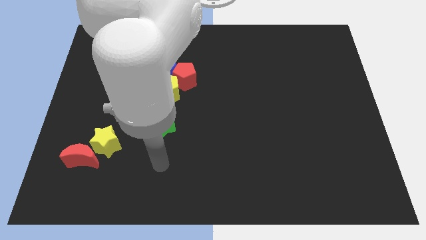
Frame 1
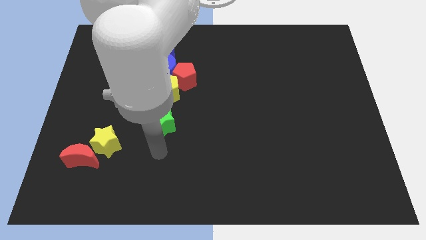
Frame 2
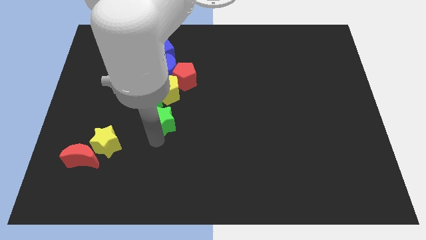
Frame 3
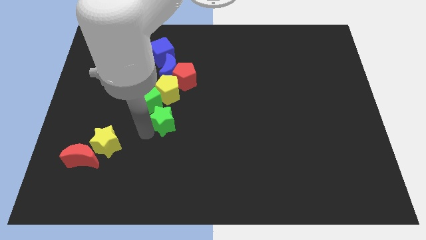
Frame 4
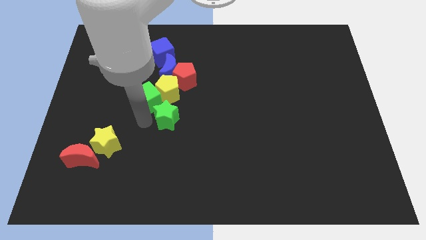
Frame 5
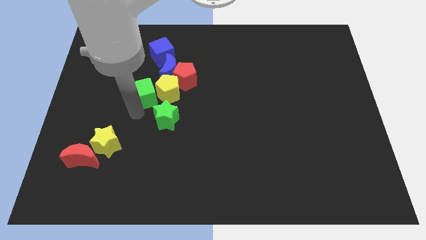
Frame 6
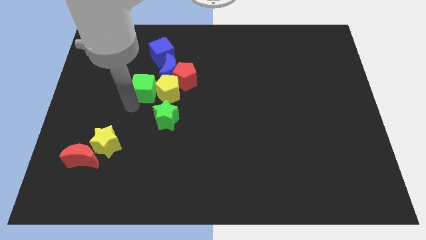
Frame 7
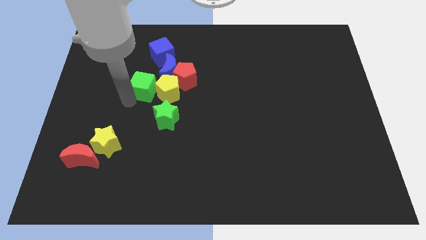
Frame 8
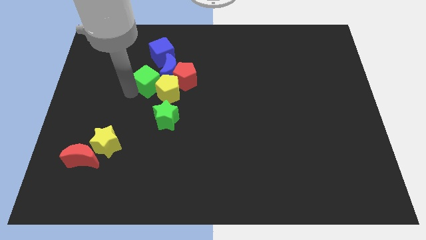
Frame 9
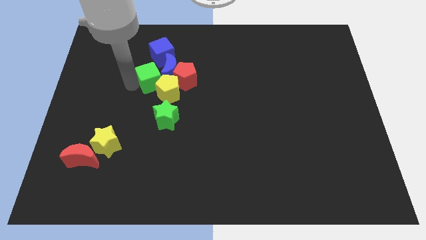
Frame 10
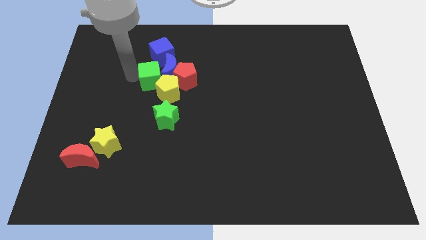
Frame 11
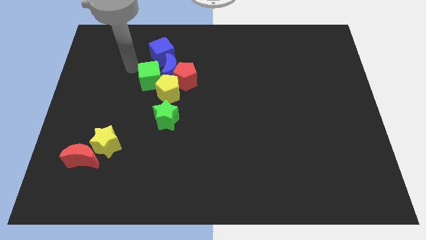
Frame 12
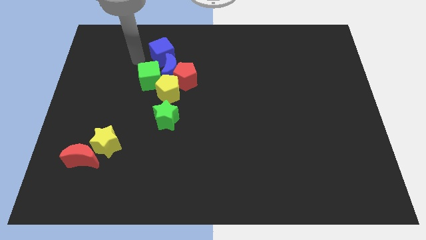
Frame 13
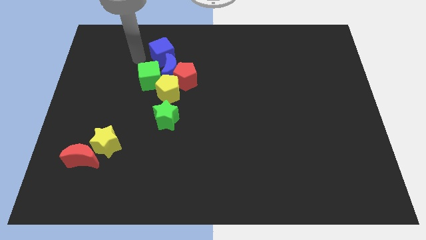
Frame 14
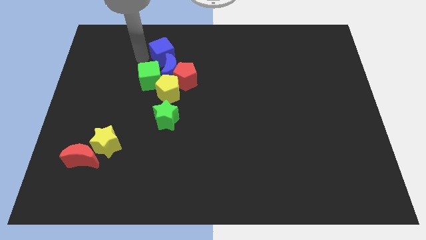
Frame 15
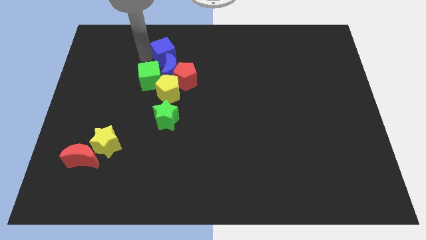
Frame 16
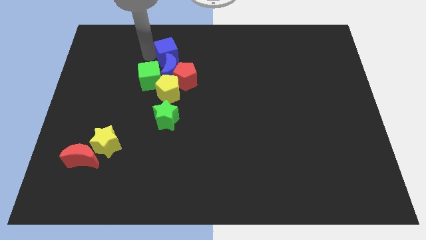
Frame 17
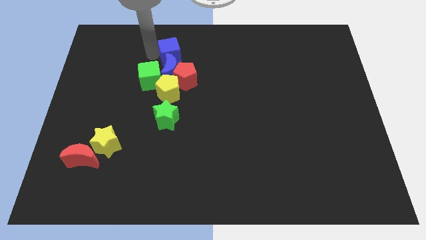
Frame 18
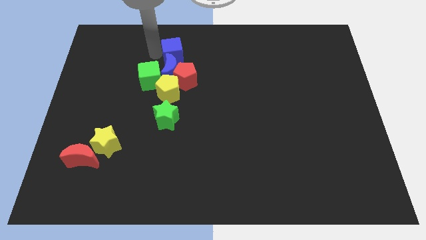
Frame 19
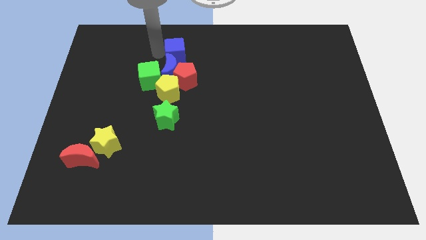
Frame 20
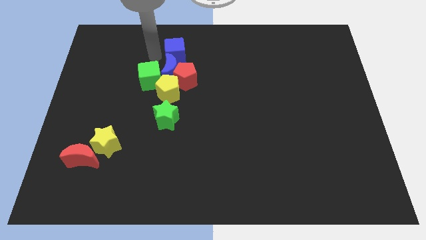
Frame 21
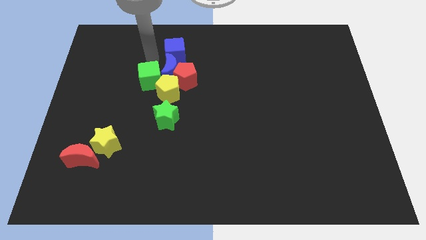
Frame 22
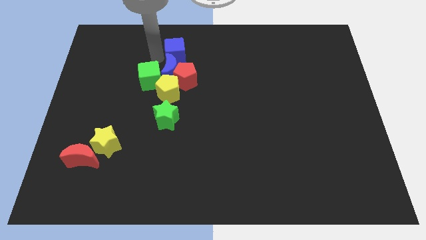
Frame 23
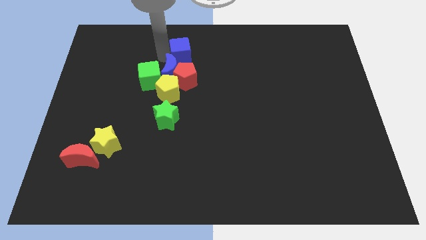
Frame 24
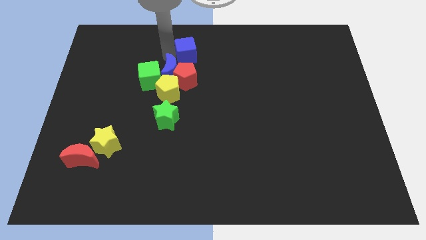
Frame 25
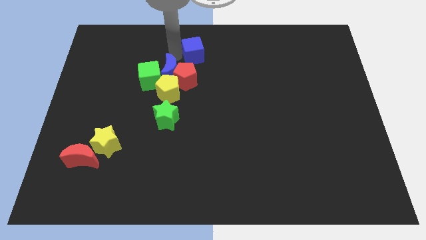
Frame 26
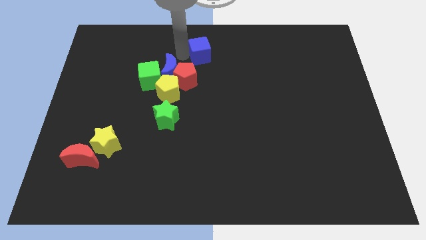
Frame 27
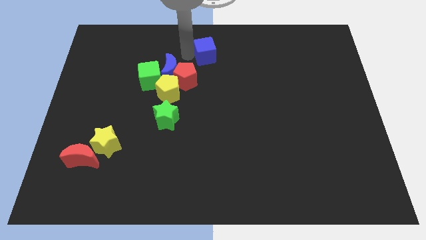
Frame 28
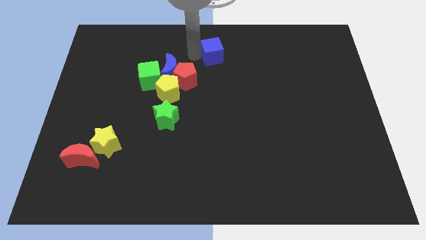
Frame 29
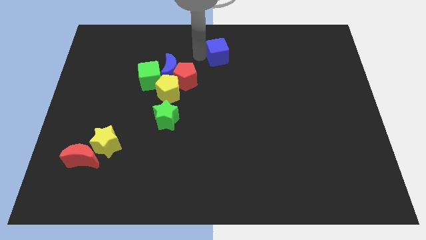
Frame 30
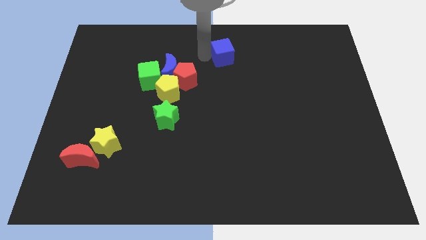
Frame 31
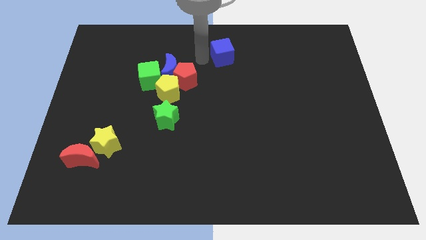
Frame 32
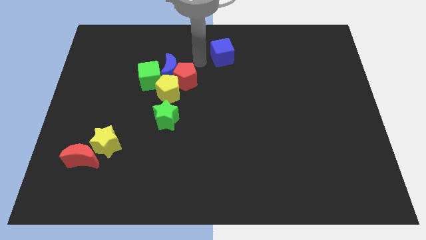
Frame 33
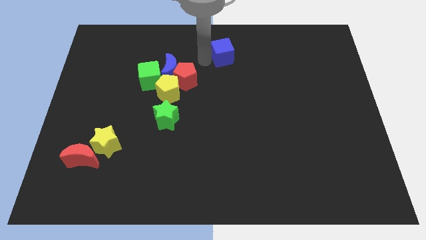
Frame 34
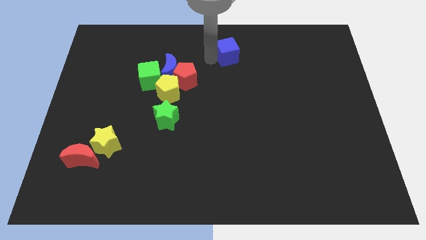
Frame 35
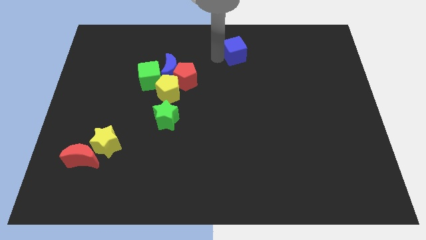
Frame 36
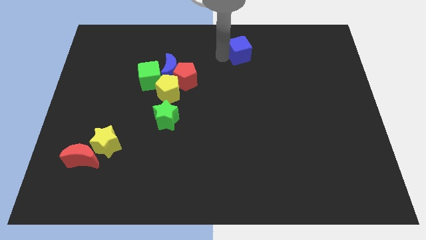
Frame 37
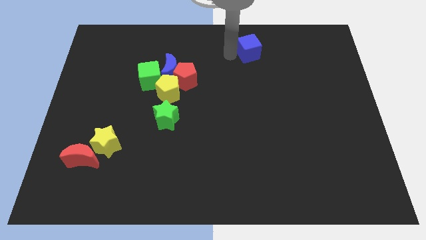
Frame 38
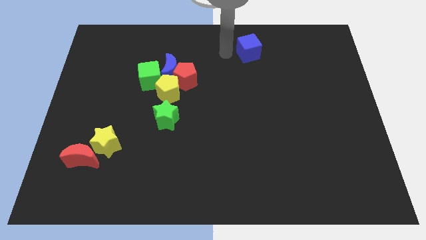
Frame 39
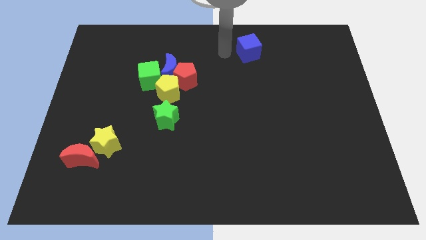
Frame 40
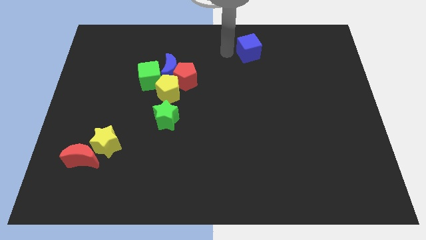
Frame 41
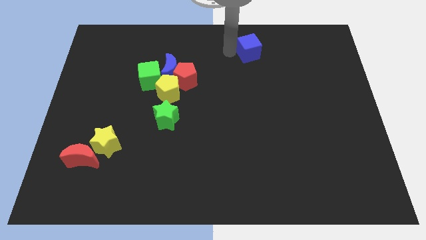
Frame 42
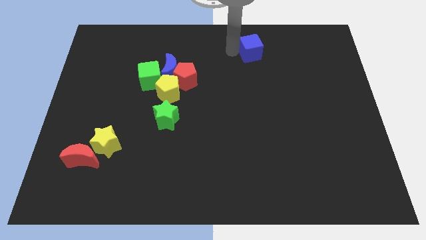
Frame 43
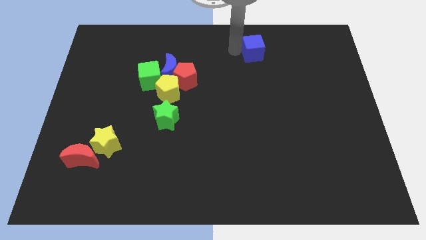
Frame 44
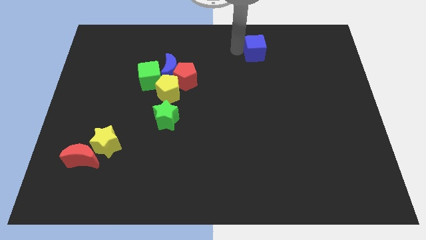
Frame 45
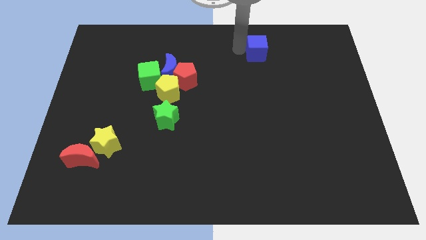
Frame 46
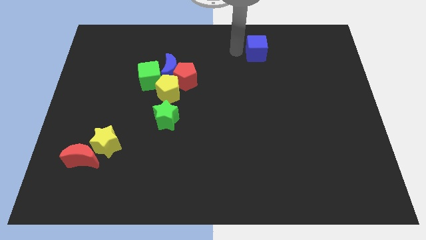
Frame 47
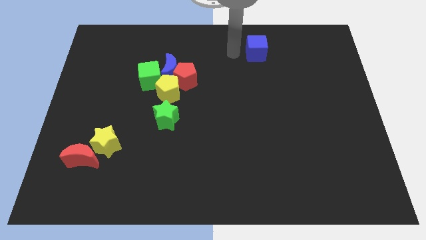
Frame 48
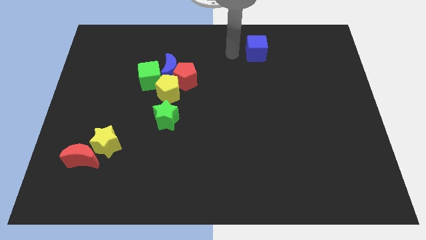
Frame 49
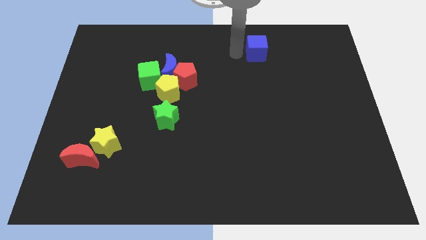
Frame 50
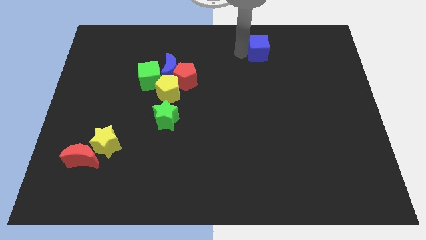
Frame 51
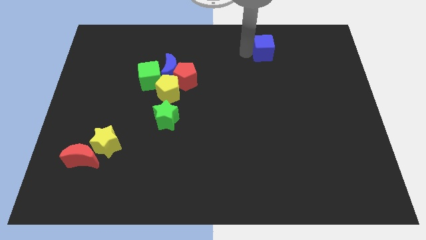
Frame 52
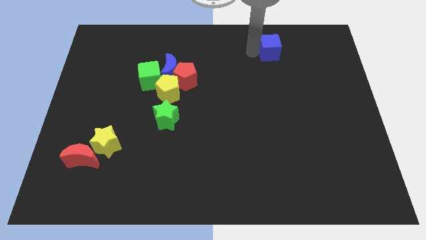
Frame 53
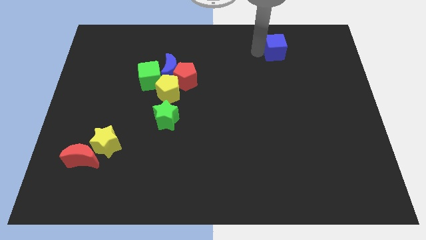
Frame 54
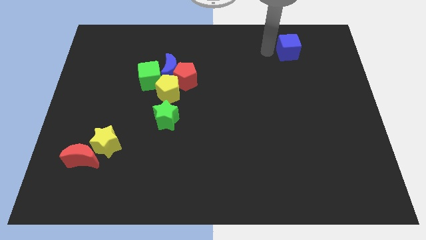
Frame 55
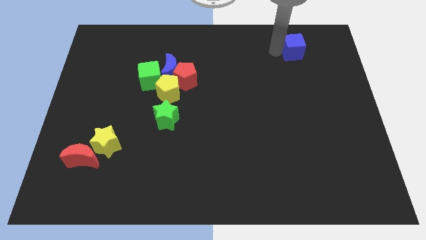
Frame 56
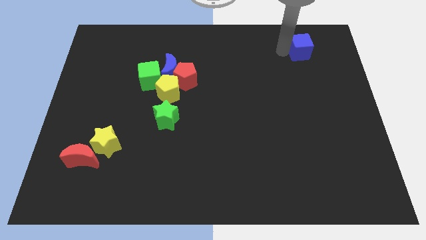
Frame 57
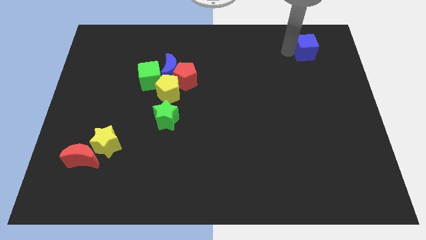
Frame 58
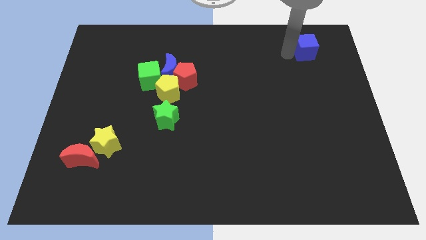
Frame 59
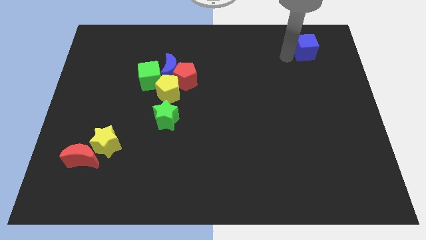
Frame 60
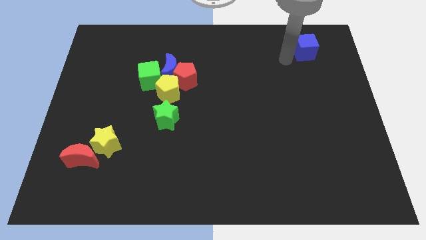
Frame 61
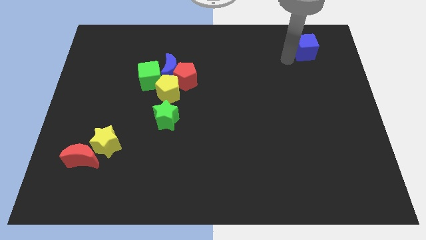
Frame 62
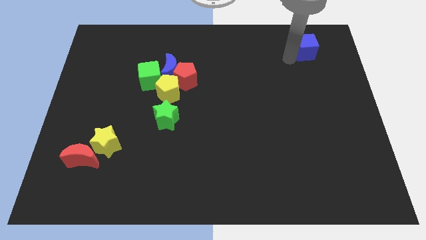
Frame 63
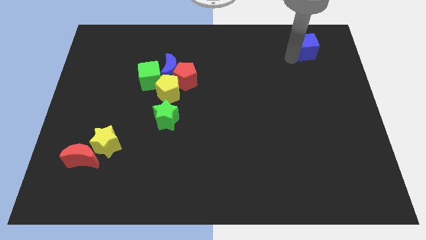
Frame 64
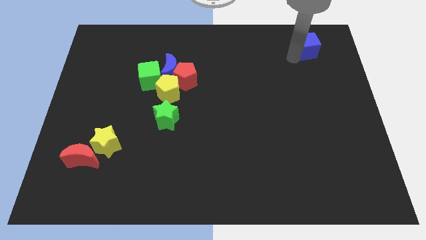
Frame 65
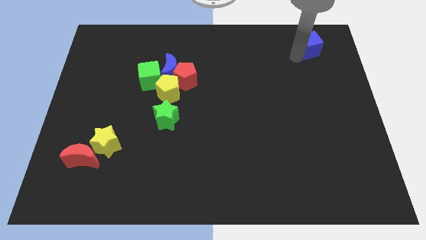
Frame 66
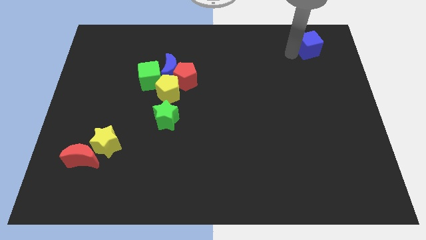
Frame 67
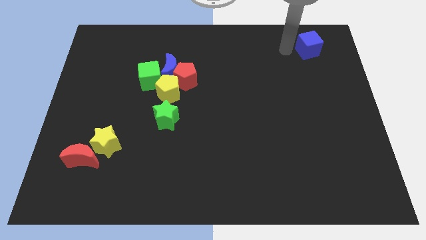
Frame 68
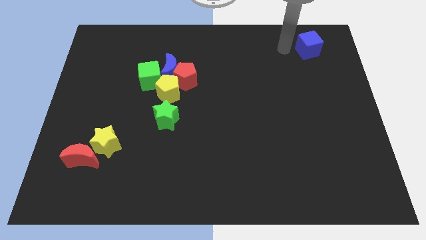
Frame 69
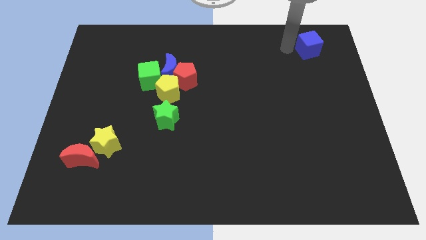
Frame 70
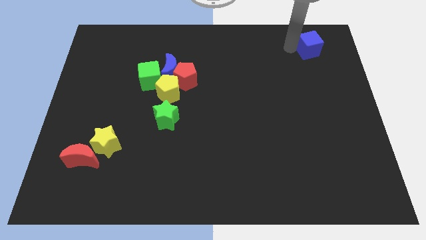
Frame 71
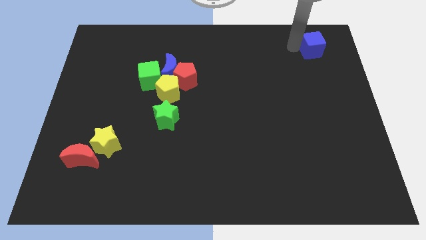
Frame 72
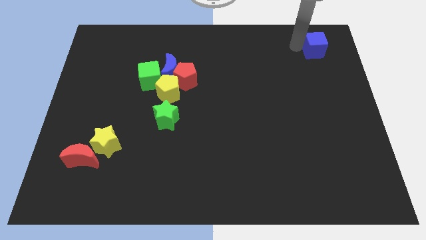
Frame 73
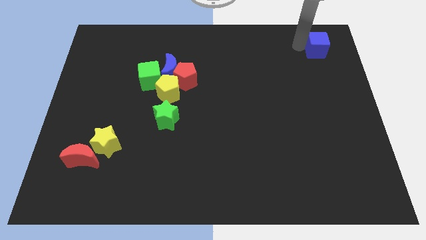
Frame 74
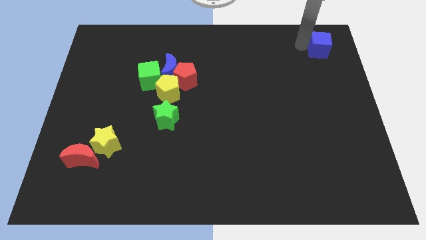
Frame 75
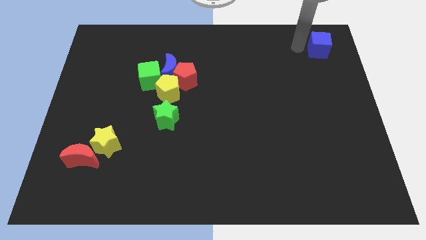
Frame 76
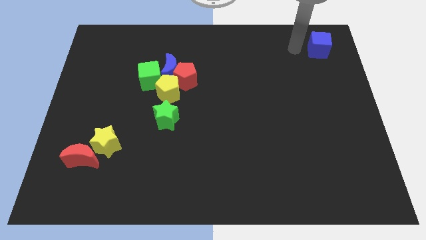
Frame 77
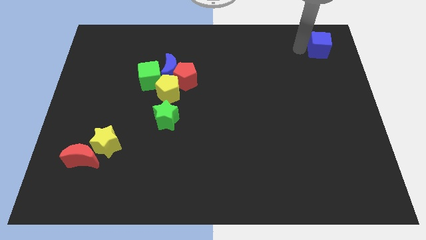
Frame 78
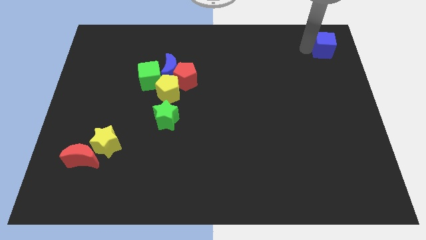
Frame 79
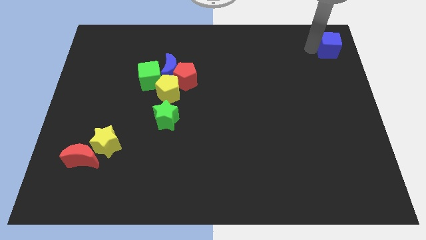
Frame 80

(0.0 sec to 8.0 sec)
put the blue cube to the top right of the board
